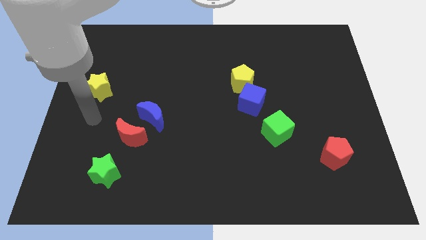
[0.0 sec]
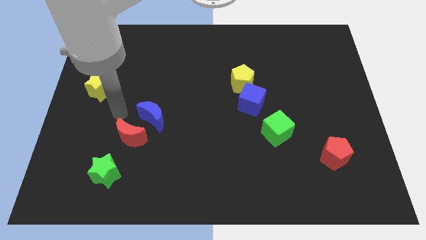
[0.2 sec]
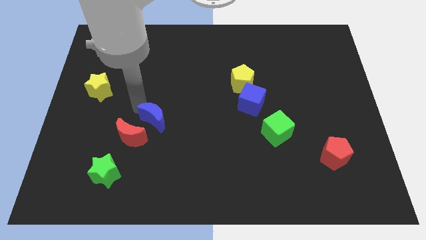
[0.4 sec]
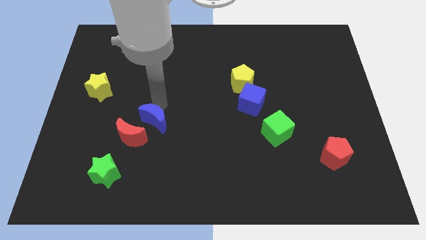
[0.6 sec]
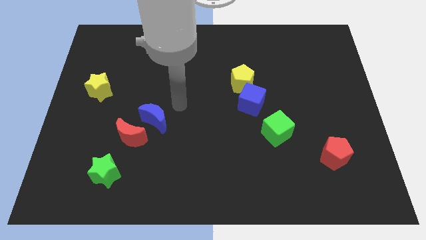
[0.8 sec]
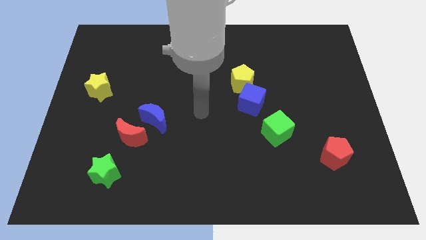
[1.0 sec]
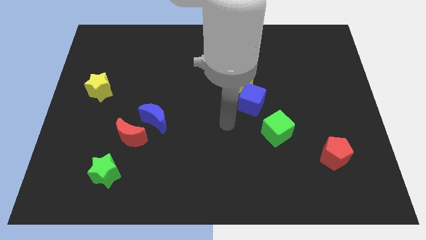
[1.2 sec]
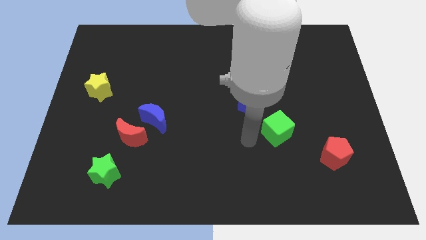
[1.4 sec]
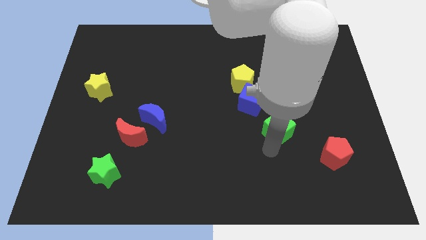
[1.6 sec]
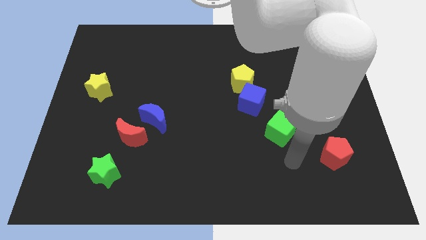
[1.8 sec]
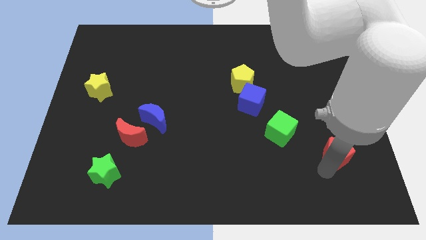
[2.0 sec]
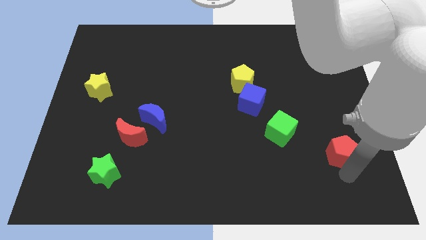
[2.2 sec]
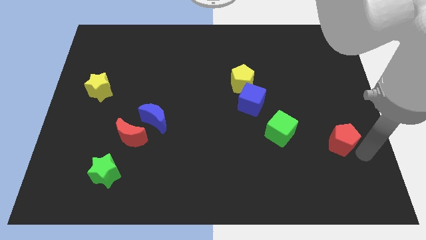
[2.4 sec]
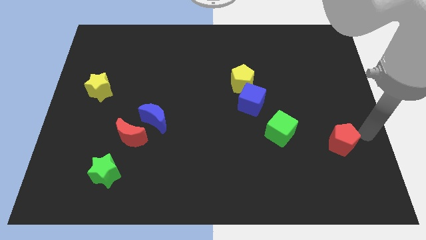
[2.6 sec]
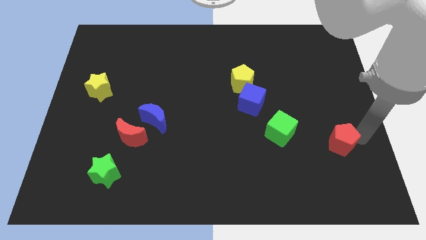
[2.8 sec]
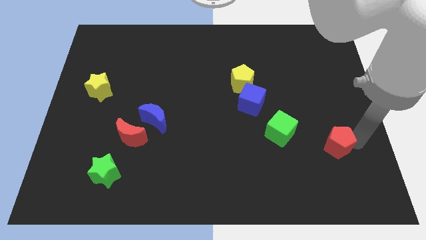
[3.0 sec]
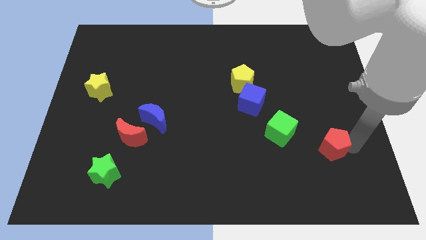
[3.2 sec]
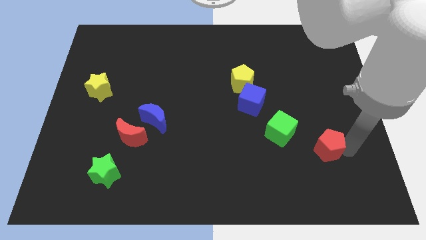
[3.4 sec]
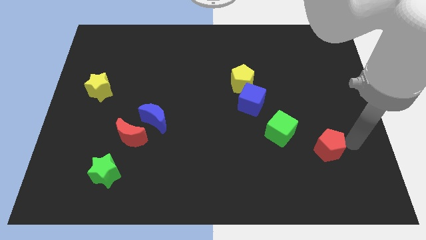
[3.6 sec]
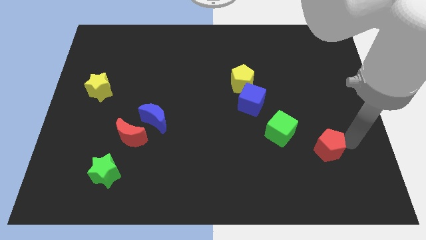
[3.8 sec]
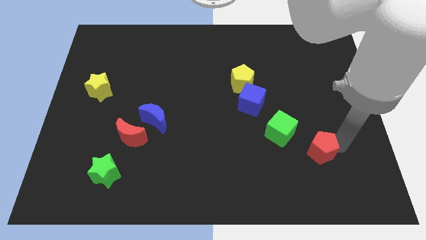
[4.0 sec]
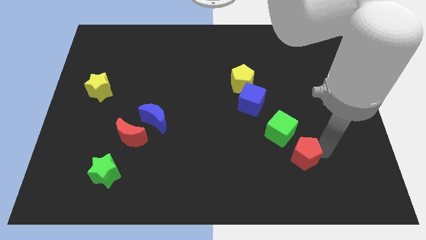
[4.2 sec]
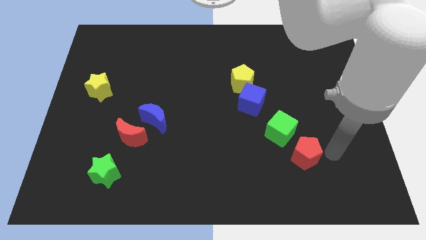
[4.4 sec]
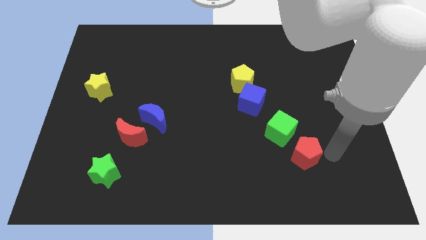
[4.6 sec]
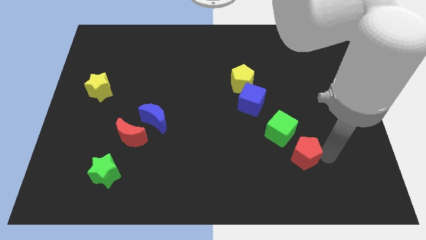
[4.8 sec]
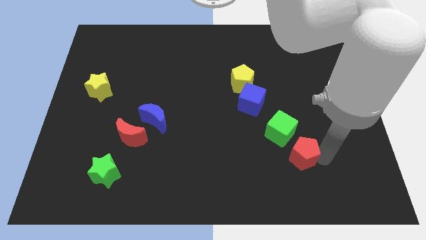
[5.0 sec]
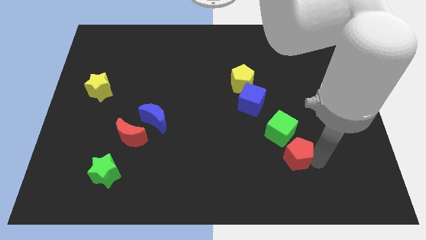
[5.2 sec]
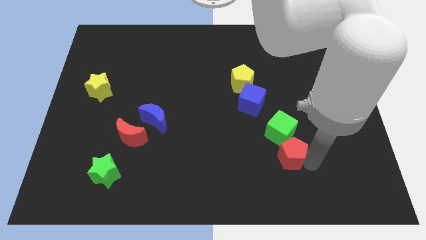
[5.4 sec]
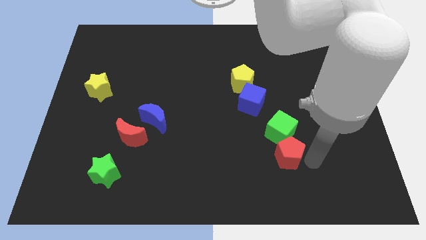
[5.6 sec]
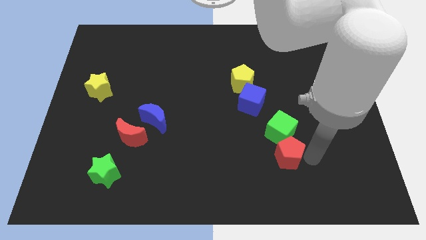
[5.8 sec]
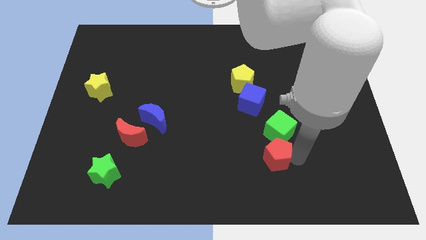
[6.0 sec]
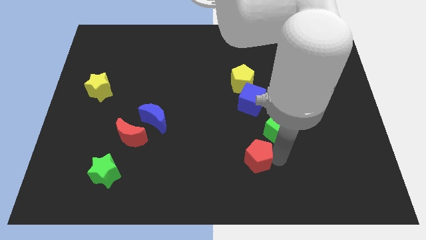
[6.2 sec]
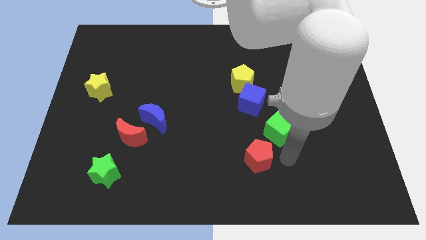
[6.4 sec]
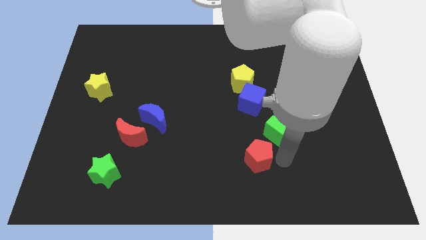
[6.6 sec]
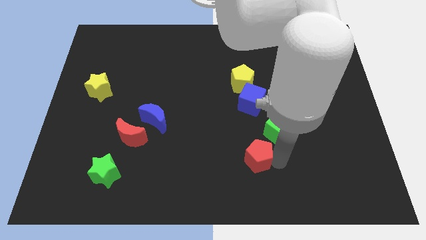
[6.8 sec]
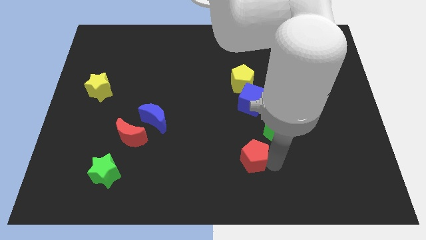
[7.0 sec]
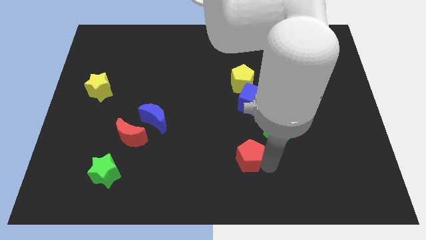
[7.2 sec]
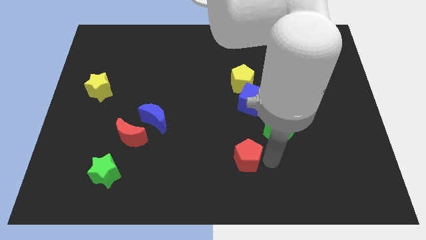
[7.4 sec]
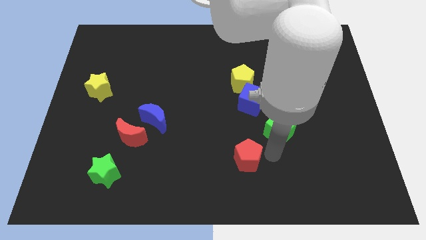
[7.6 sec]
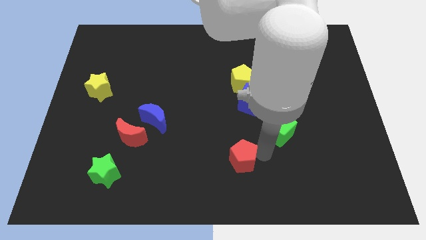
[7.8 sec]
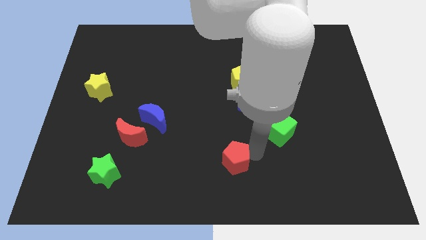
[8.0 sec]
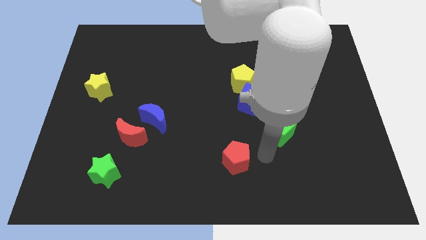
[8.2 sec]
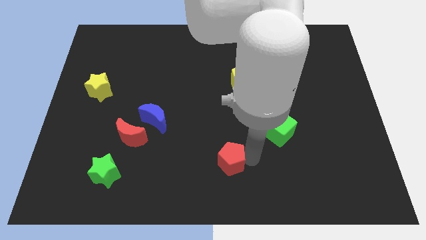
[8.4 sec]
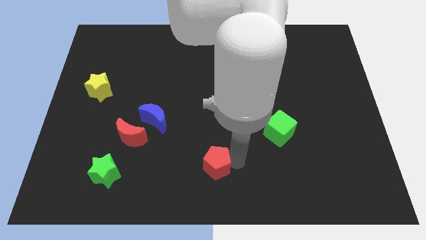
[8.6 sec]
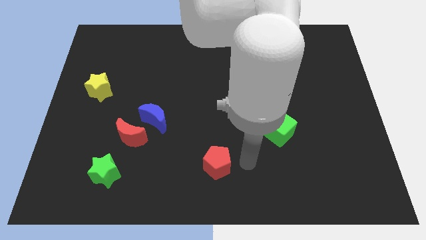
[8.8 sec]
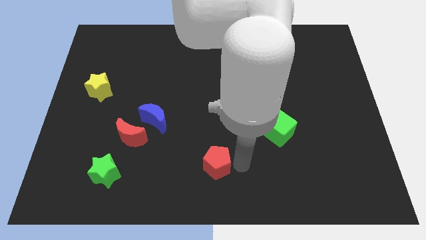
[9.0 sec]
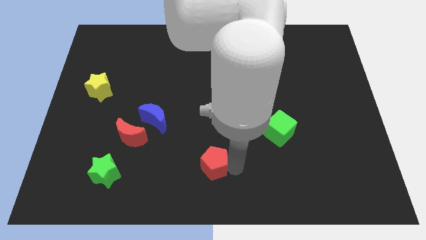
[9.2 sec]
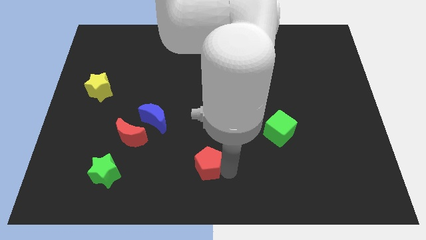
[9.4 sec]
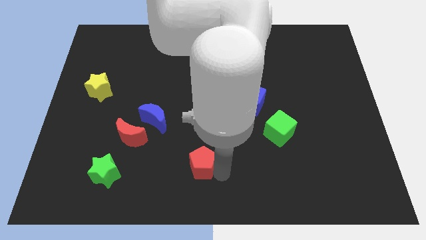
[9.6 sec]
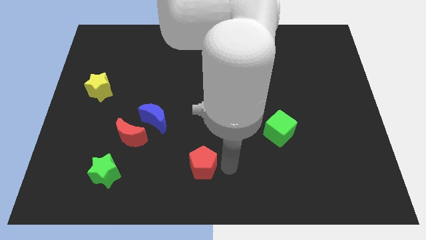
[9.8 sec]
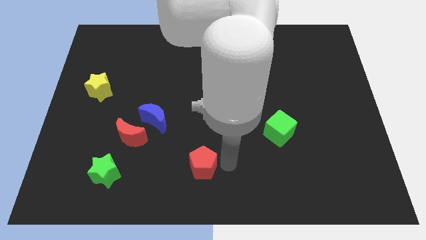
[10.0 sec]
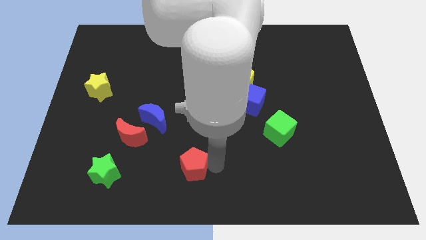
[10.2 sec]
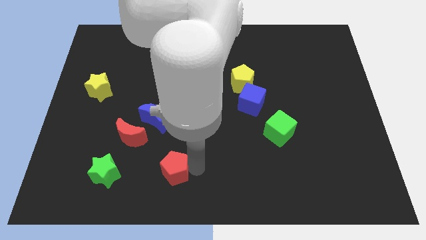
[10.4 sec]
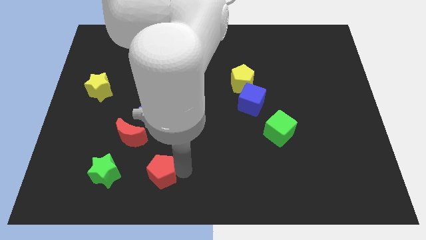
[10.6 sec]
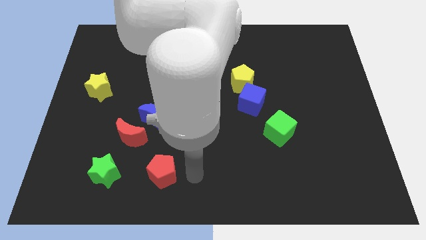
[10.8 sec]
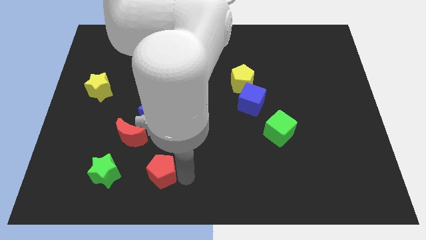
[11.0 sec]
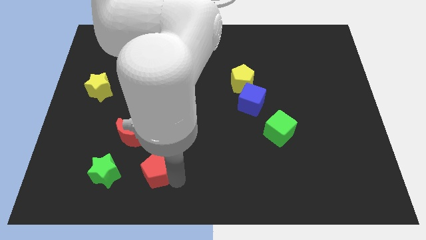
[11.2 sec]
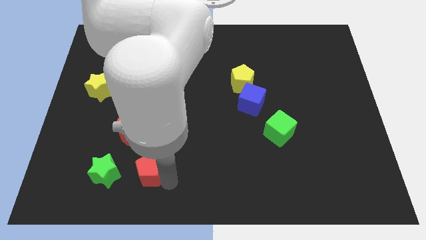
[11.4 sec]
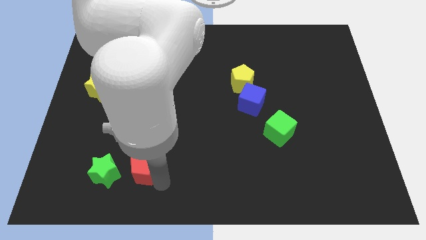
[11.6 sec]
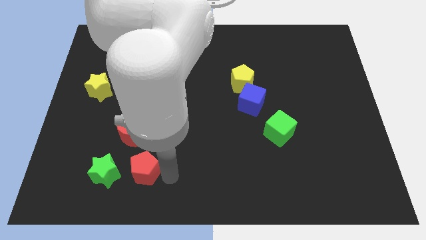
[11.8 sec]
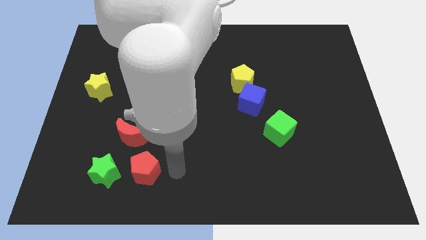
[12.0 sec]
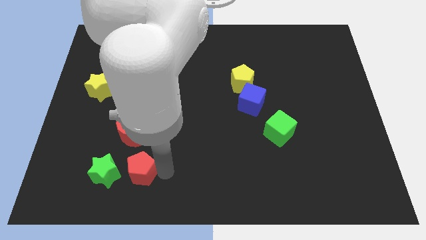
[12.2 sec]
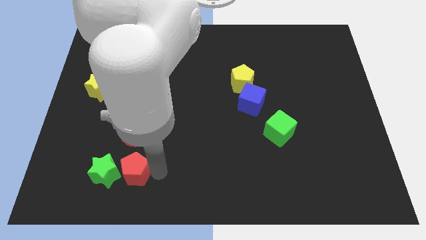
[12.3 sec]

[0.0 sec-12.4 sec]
push the red pentagon next to the green star

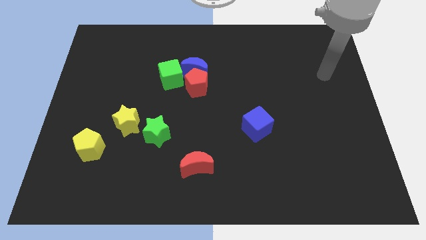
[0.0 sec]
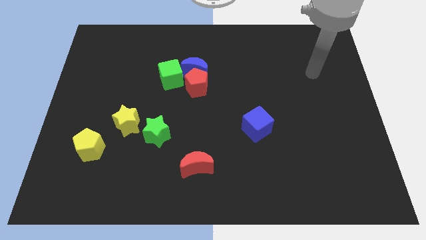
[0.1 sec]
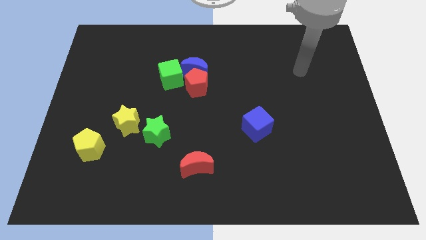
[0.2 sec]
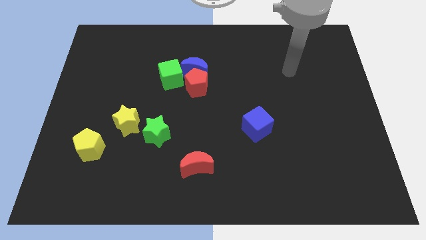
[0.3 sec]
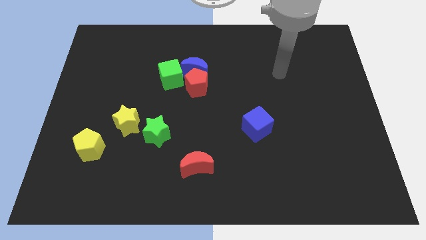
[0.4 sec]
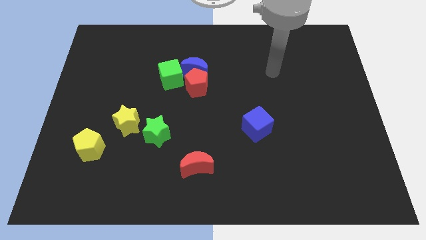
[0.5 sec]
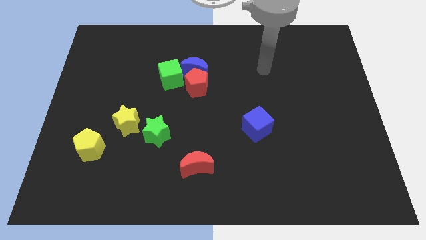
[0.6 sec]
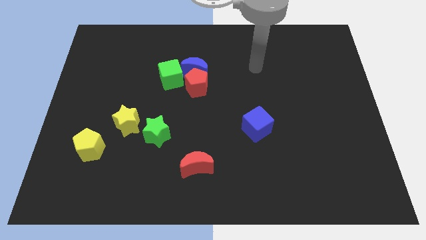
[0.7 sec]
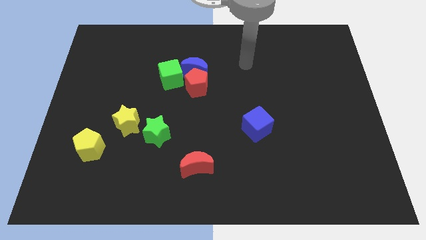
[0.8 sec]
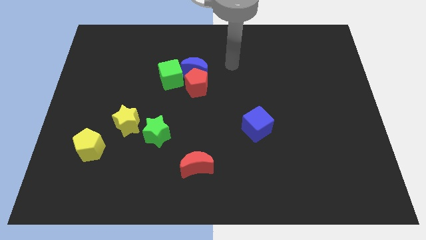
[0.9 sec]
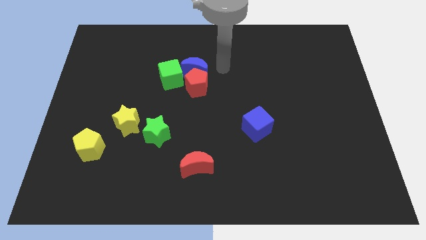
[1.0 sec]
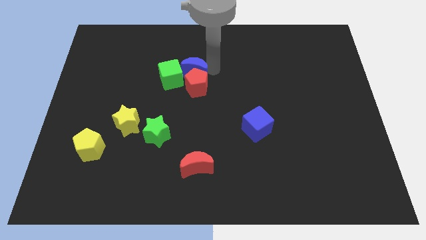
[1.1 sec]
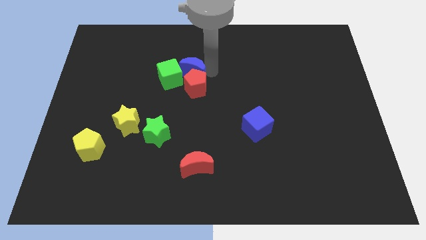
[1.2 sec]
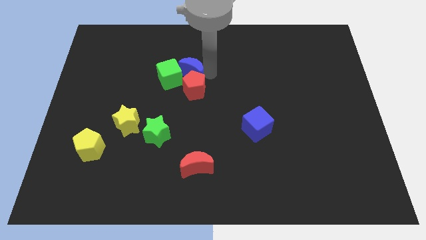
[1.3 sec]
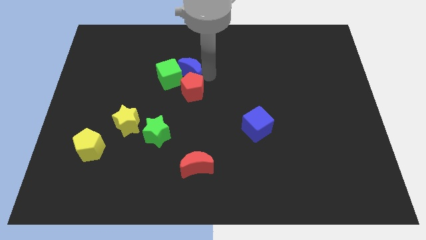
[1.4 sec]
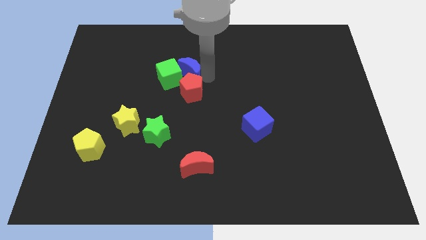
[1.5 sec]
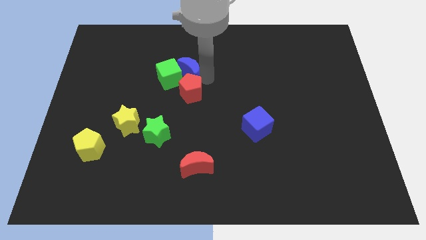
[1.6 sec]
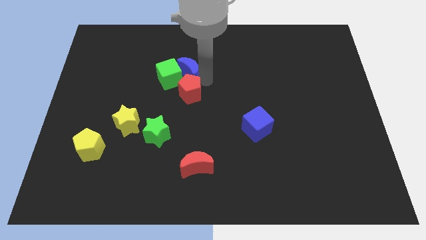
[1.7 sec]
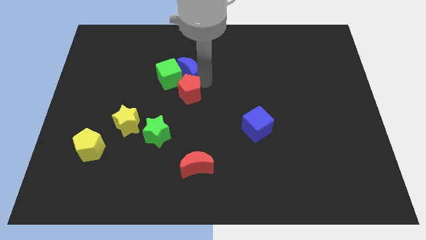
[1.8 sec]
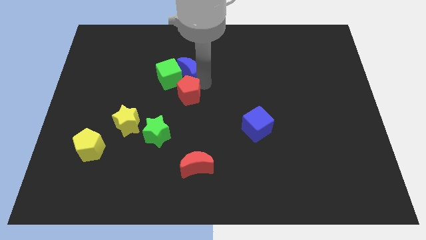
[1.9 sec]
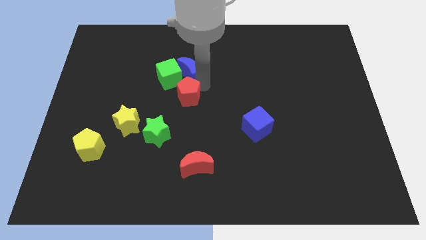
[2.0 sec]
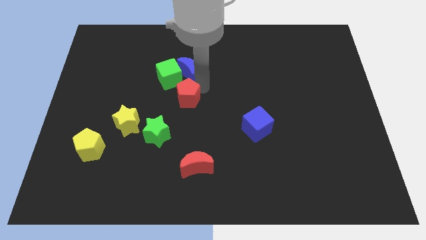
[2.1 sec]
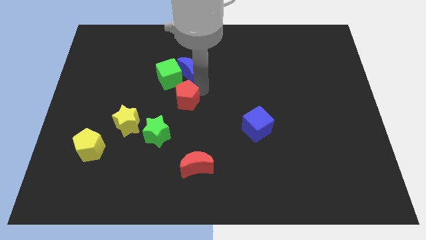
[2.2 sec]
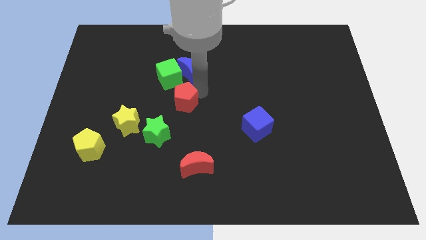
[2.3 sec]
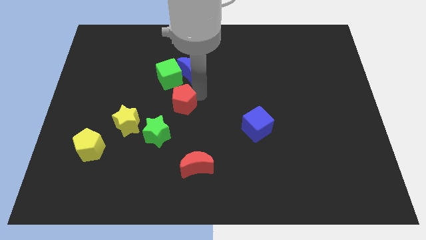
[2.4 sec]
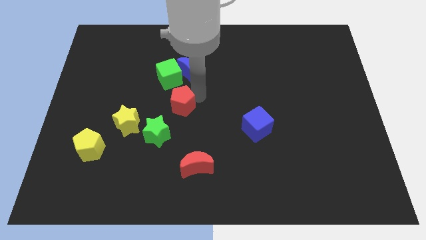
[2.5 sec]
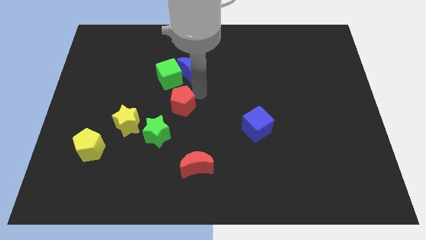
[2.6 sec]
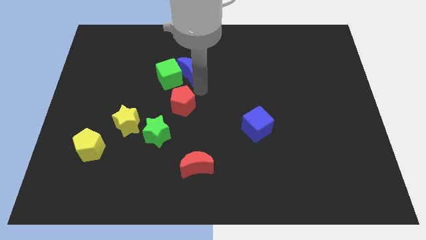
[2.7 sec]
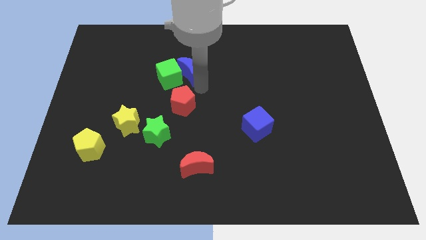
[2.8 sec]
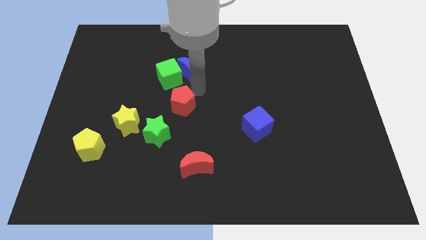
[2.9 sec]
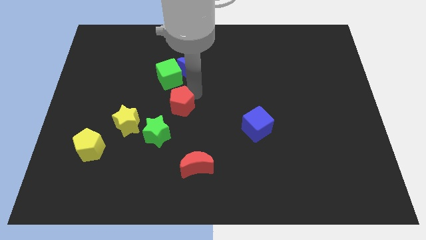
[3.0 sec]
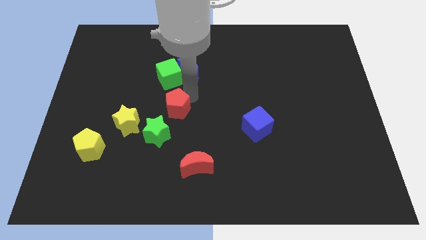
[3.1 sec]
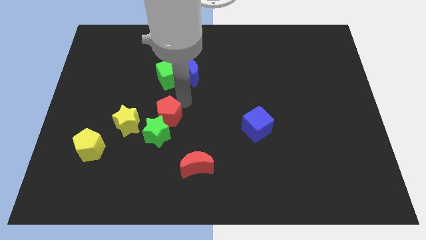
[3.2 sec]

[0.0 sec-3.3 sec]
put the red pentagon close to the green star
